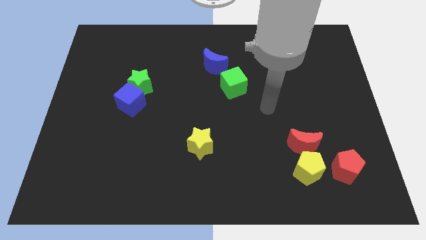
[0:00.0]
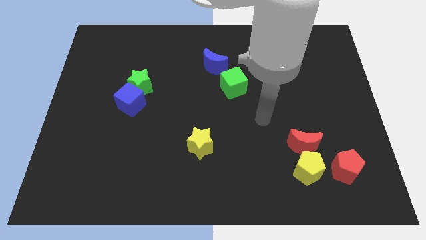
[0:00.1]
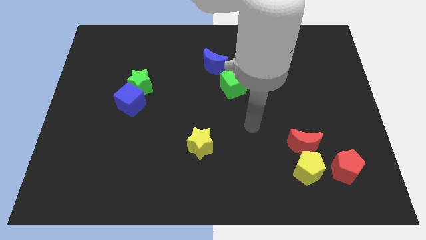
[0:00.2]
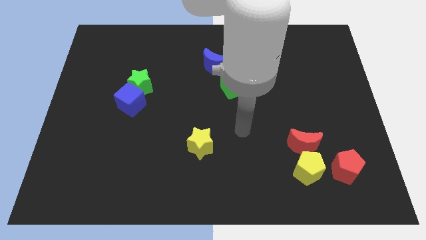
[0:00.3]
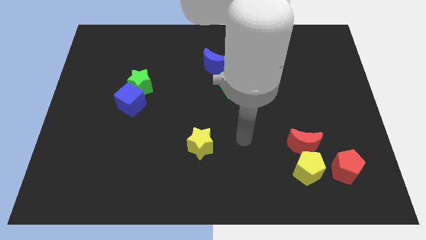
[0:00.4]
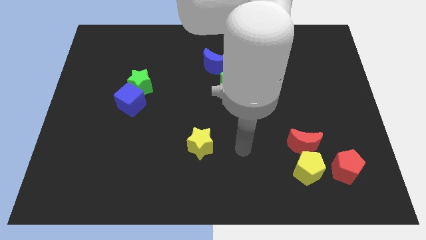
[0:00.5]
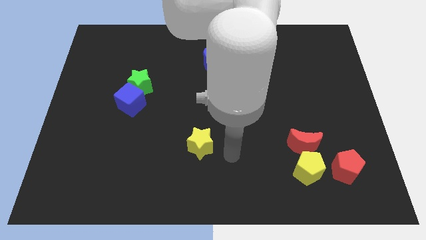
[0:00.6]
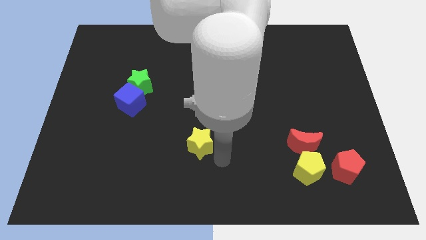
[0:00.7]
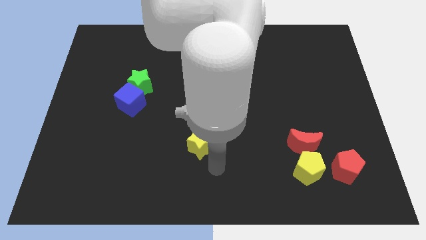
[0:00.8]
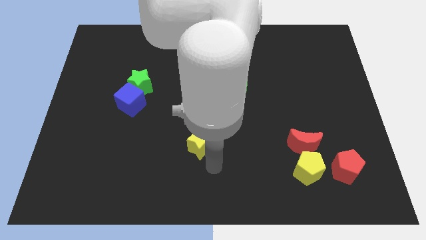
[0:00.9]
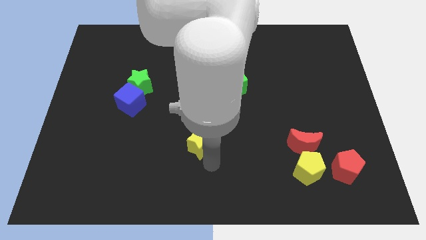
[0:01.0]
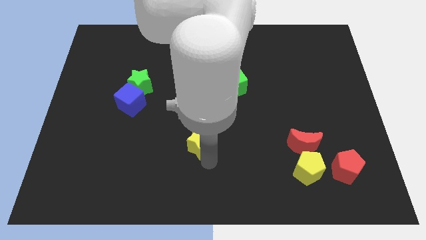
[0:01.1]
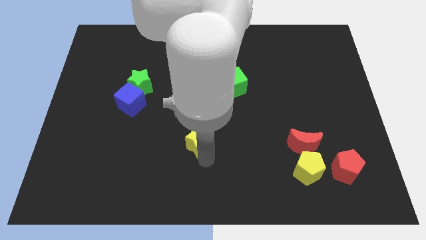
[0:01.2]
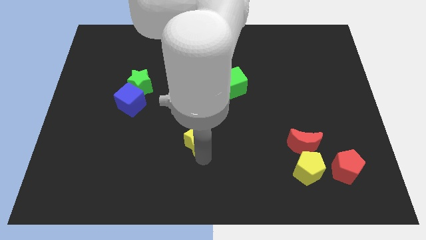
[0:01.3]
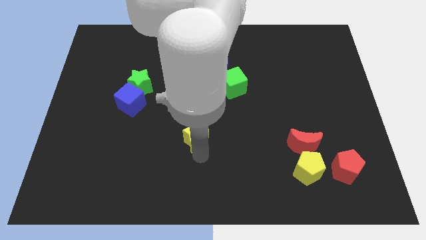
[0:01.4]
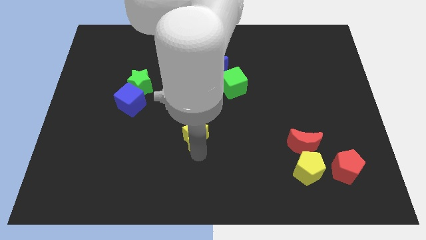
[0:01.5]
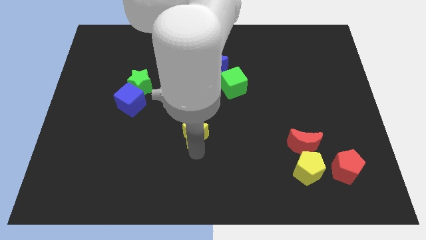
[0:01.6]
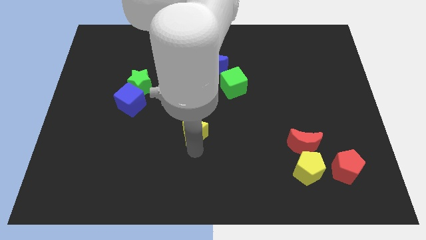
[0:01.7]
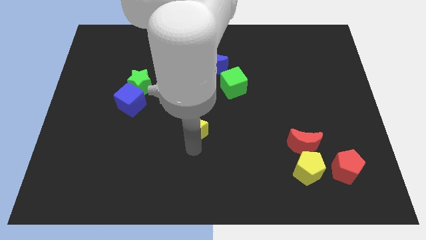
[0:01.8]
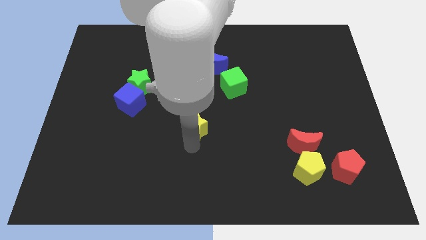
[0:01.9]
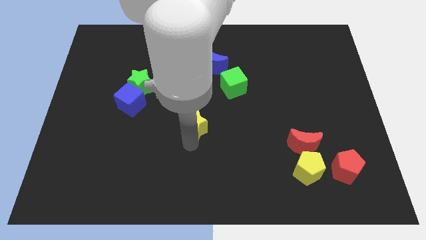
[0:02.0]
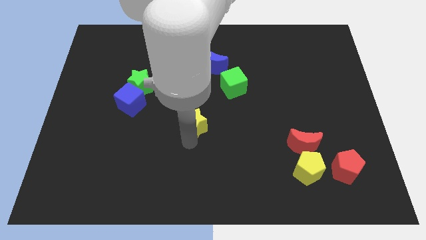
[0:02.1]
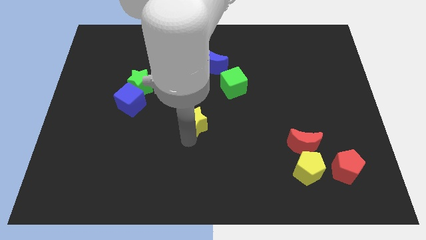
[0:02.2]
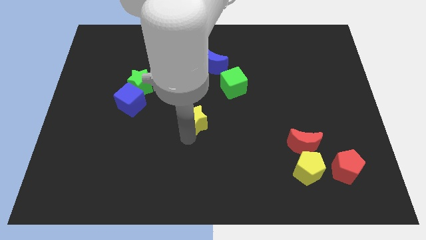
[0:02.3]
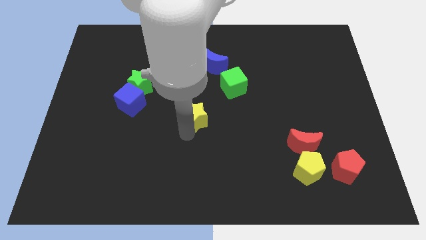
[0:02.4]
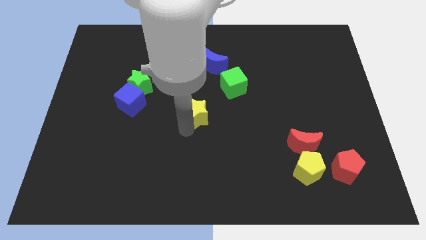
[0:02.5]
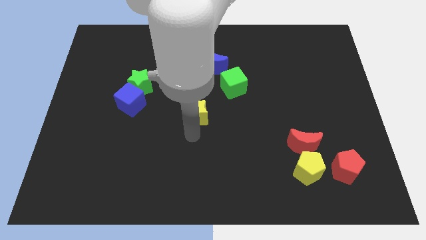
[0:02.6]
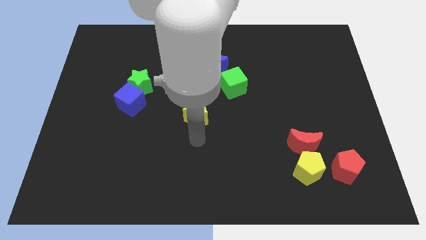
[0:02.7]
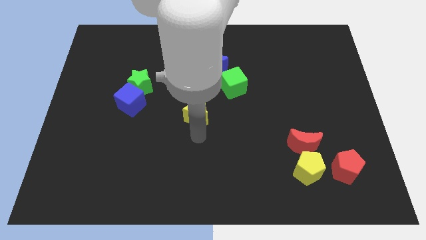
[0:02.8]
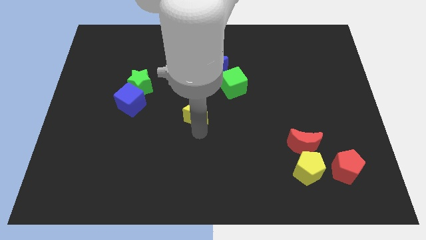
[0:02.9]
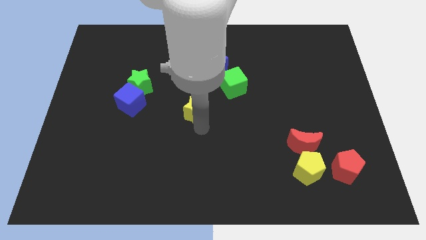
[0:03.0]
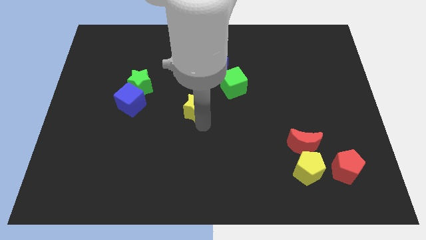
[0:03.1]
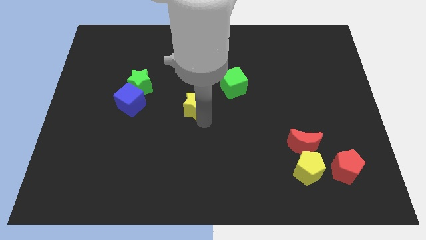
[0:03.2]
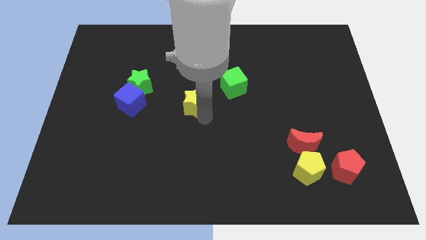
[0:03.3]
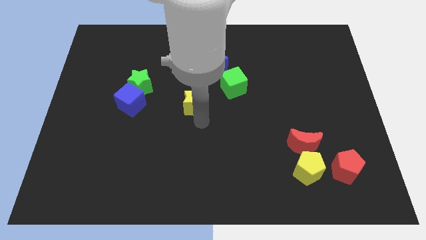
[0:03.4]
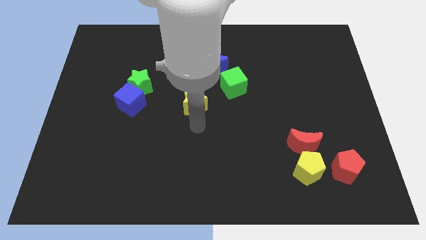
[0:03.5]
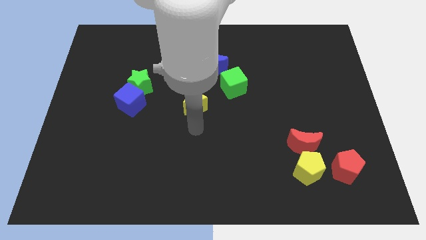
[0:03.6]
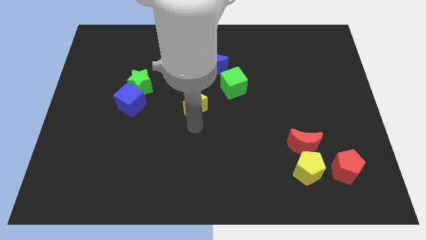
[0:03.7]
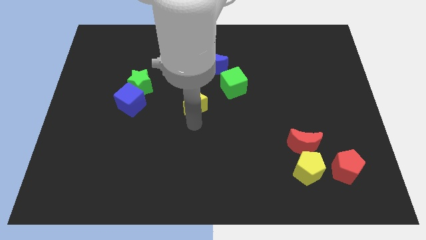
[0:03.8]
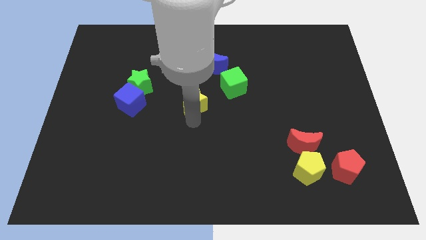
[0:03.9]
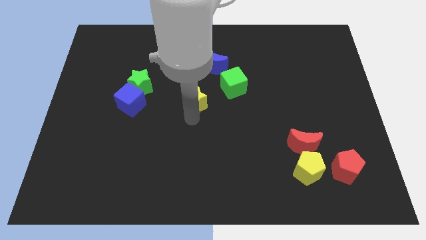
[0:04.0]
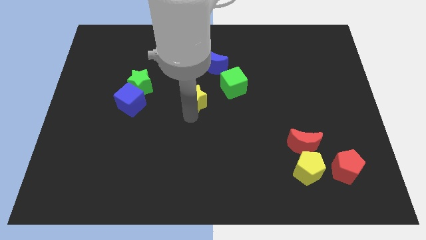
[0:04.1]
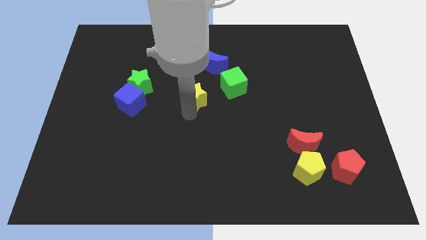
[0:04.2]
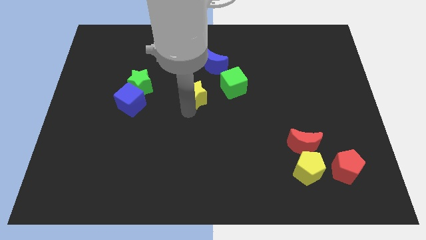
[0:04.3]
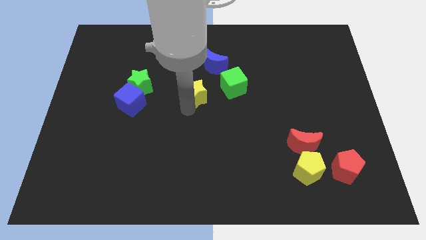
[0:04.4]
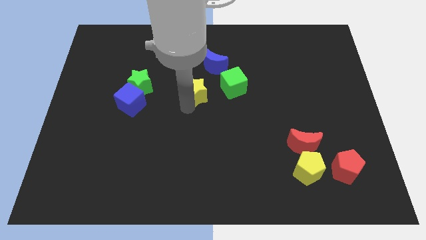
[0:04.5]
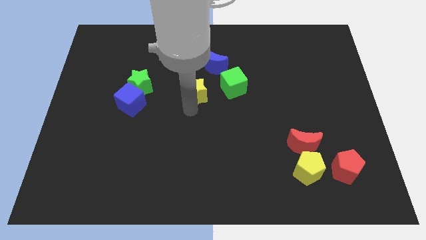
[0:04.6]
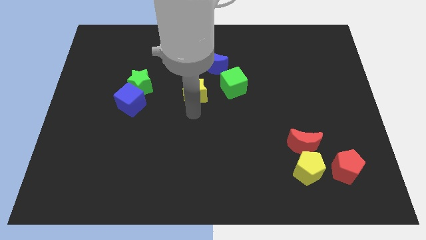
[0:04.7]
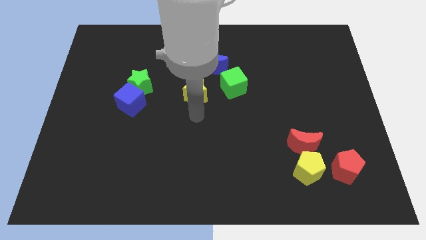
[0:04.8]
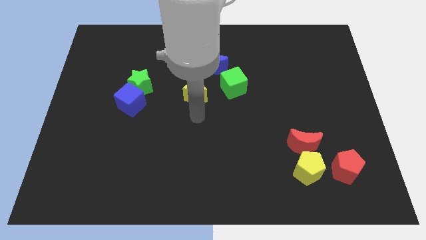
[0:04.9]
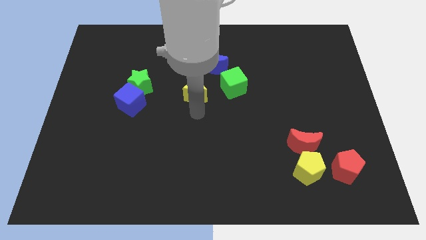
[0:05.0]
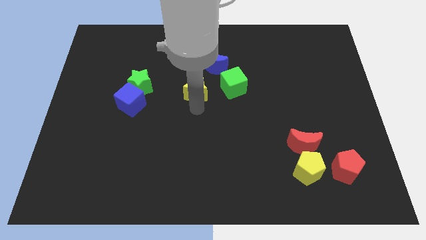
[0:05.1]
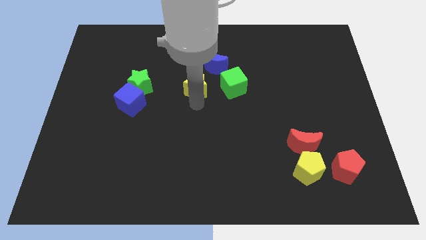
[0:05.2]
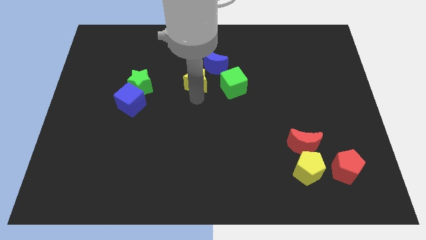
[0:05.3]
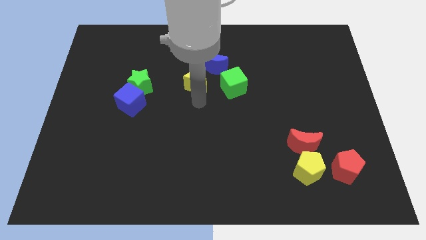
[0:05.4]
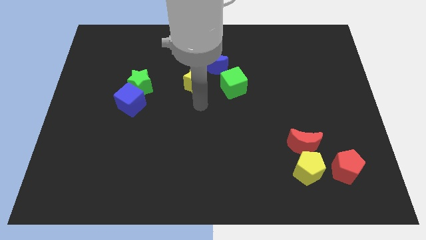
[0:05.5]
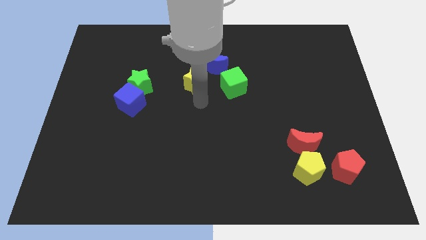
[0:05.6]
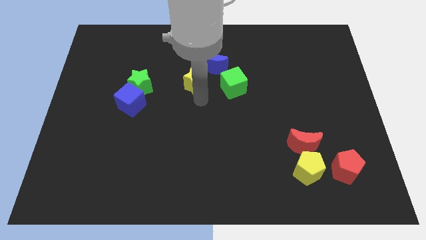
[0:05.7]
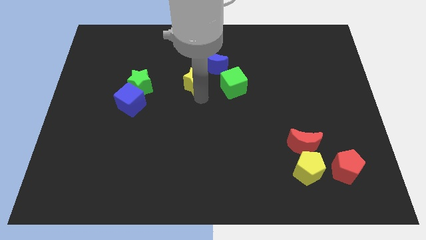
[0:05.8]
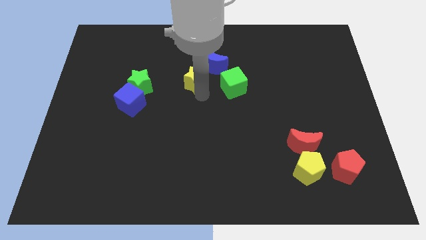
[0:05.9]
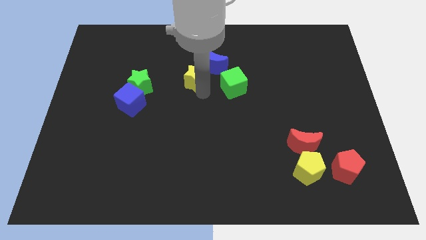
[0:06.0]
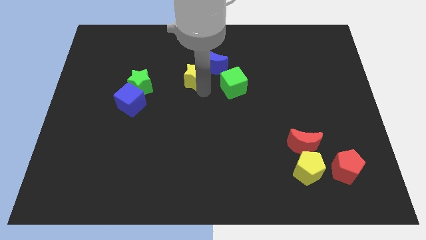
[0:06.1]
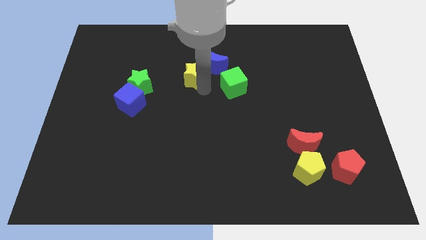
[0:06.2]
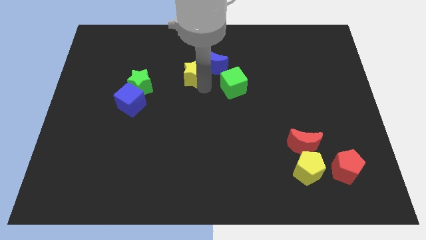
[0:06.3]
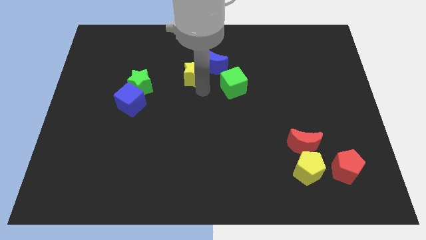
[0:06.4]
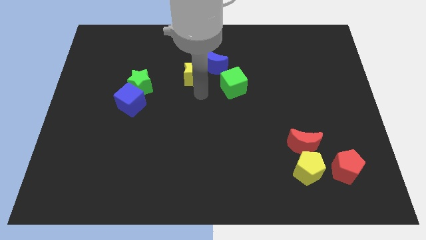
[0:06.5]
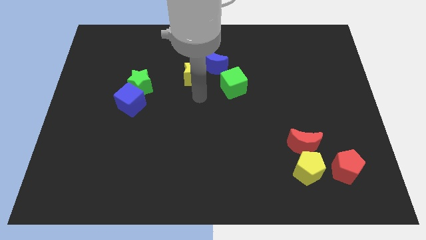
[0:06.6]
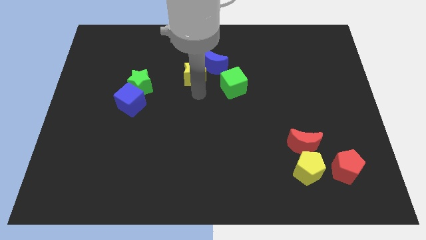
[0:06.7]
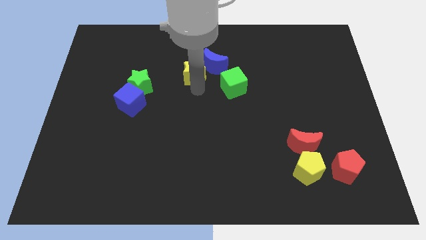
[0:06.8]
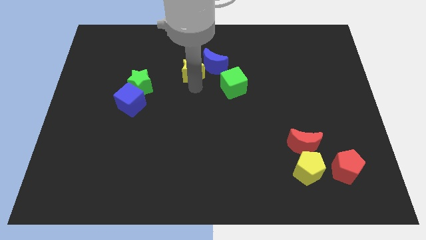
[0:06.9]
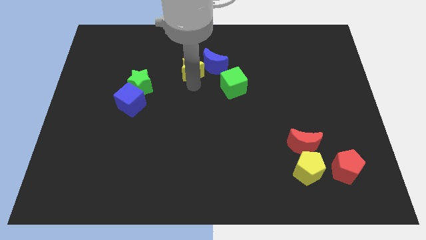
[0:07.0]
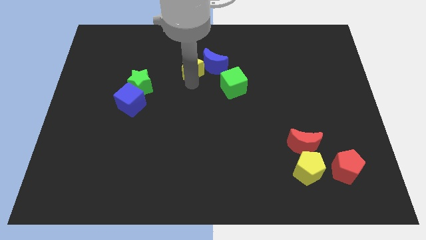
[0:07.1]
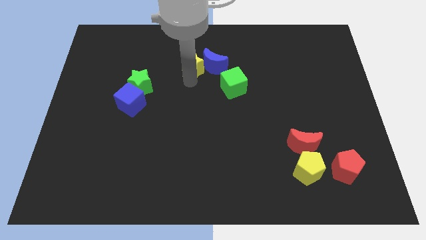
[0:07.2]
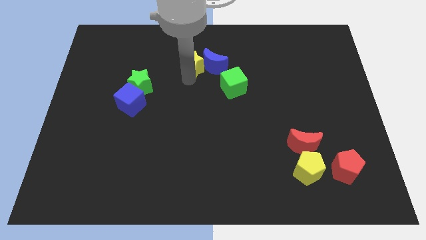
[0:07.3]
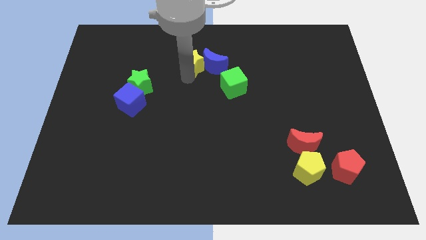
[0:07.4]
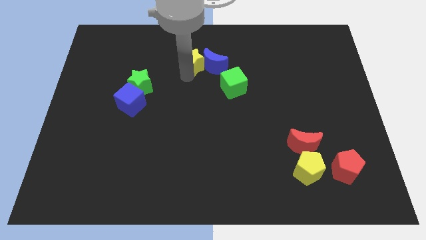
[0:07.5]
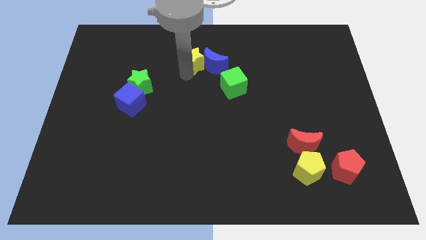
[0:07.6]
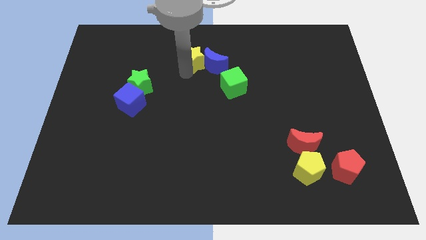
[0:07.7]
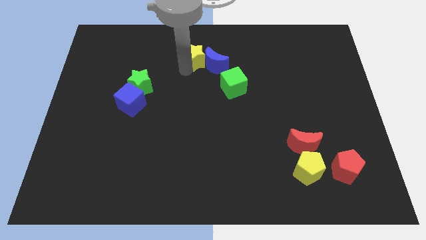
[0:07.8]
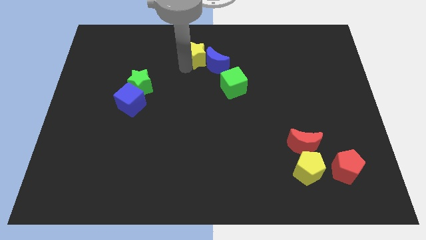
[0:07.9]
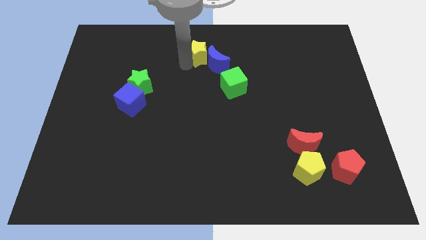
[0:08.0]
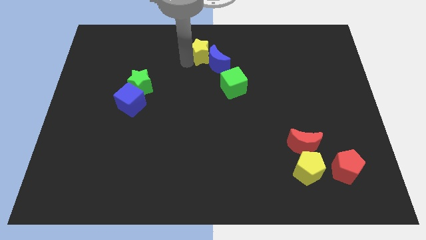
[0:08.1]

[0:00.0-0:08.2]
move the yellow star to the towards your base
